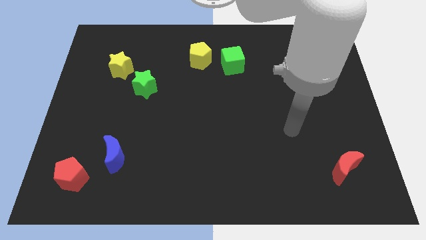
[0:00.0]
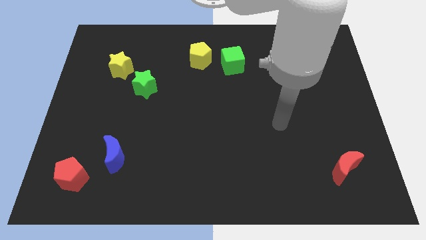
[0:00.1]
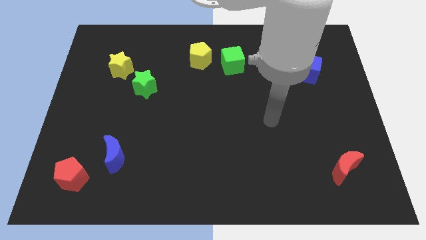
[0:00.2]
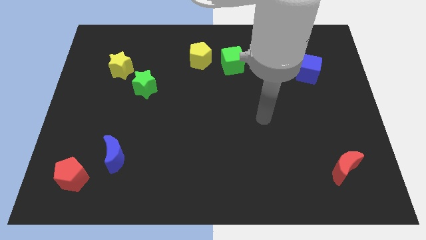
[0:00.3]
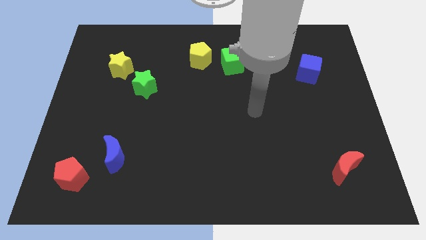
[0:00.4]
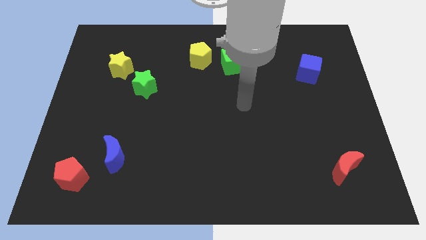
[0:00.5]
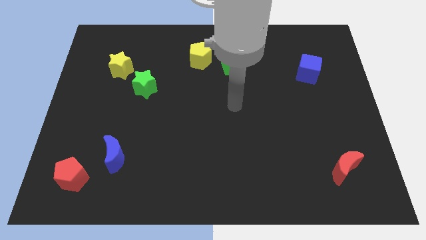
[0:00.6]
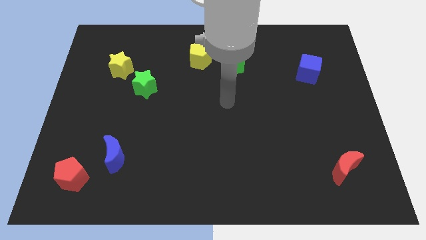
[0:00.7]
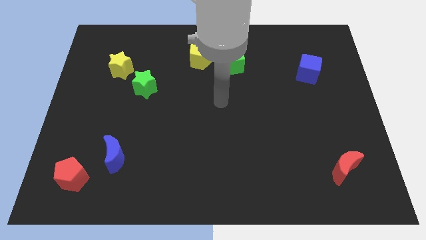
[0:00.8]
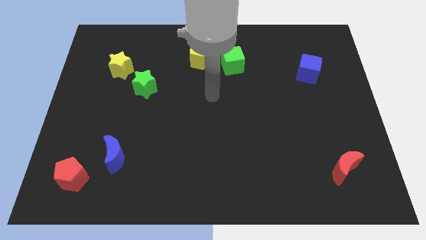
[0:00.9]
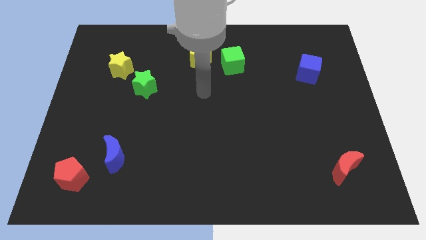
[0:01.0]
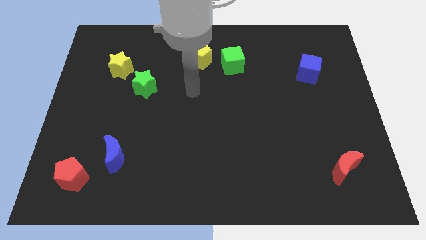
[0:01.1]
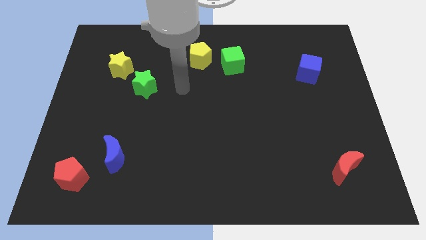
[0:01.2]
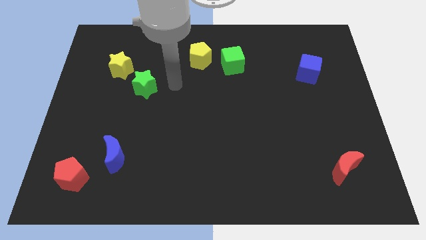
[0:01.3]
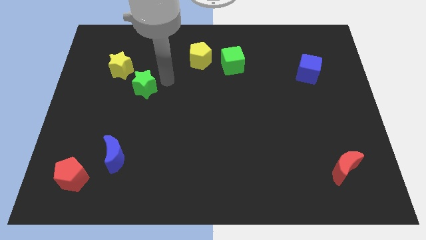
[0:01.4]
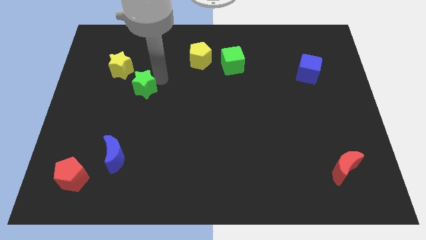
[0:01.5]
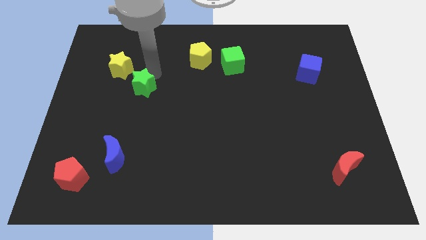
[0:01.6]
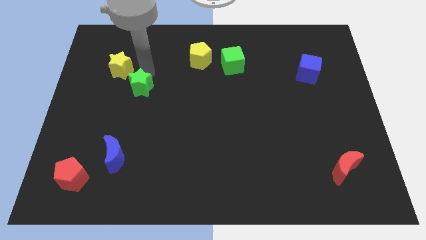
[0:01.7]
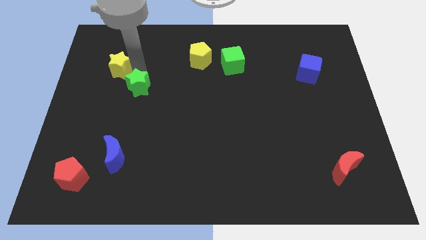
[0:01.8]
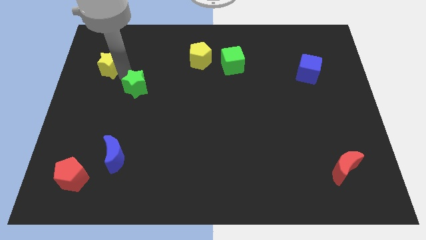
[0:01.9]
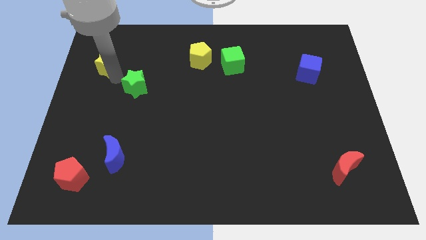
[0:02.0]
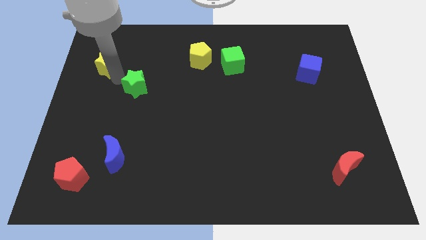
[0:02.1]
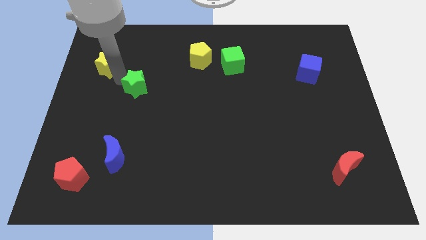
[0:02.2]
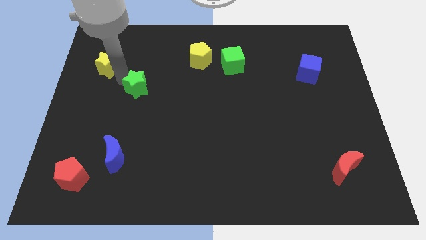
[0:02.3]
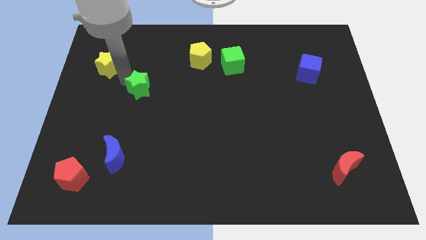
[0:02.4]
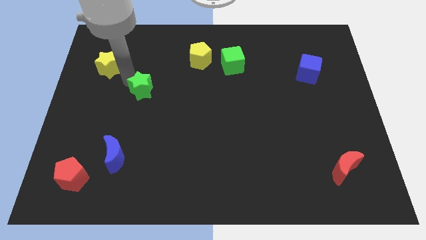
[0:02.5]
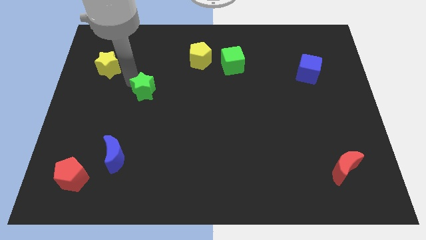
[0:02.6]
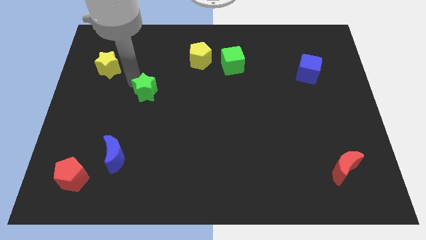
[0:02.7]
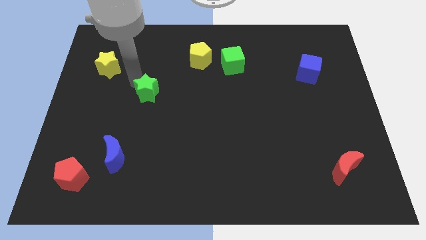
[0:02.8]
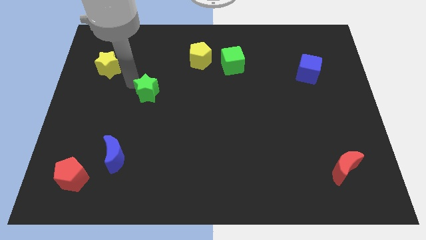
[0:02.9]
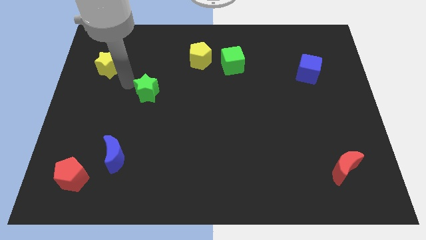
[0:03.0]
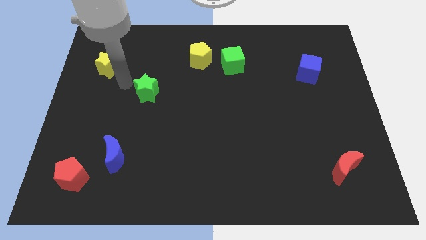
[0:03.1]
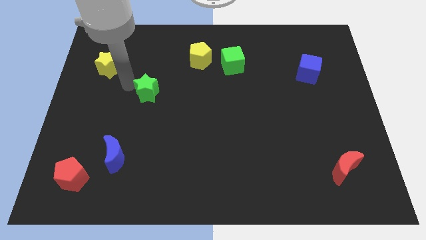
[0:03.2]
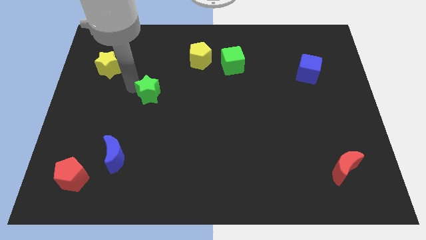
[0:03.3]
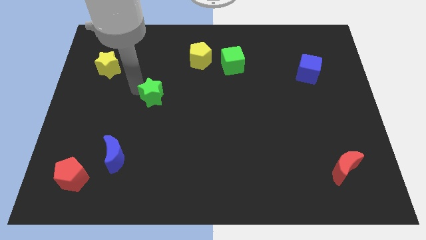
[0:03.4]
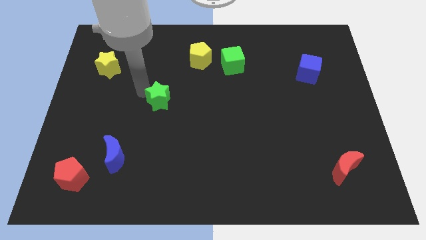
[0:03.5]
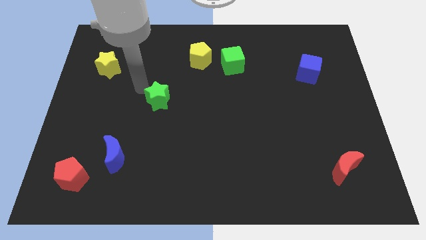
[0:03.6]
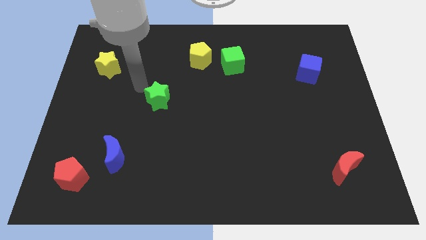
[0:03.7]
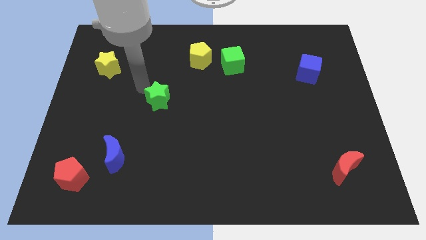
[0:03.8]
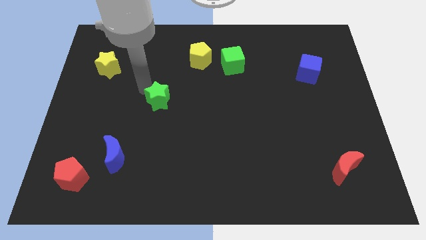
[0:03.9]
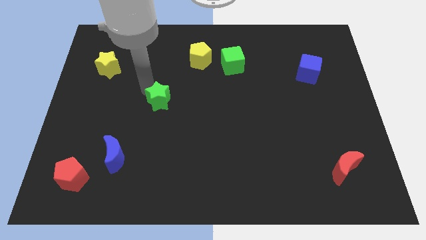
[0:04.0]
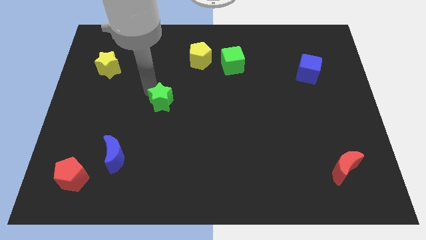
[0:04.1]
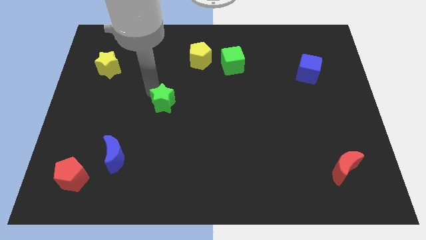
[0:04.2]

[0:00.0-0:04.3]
move the green star downwards and then to the right a little bit

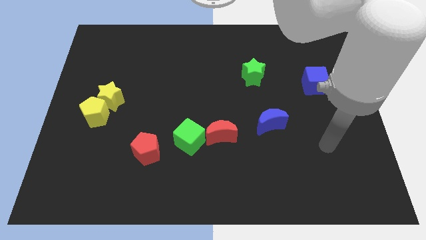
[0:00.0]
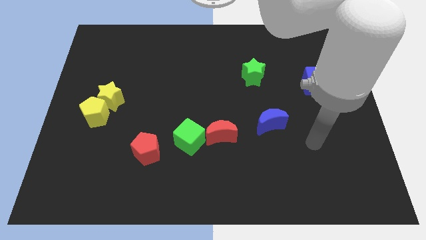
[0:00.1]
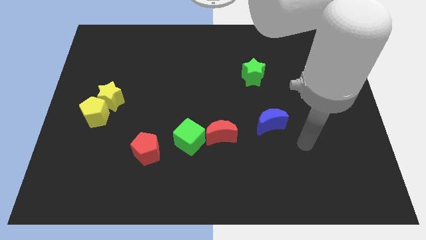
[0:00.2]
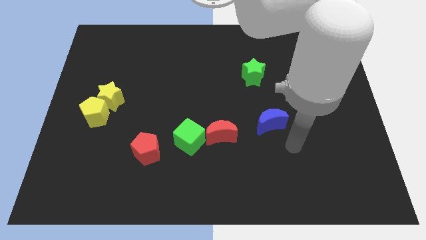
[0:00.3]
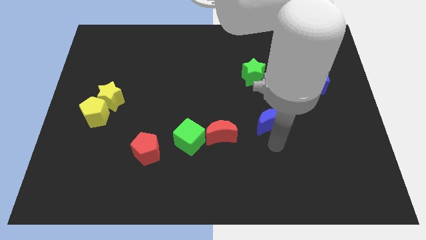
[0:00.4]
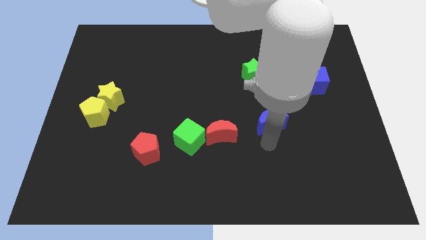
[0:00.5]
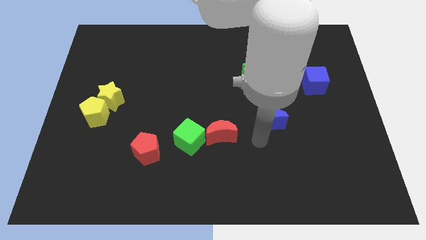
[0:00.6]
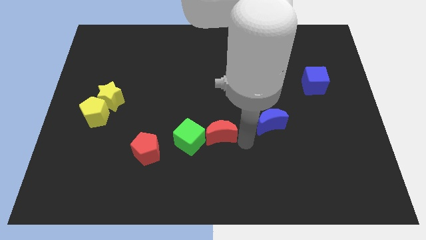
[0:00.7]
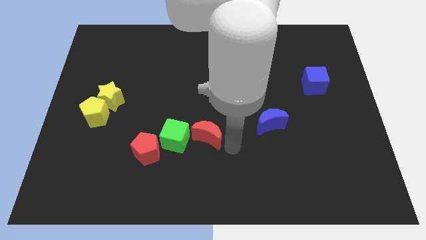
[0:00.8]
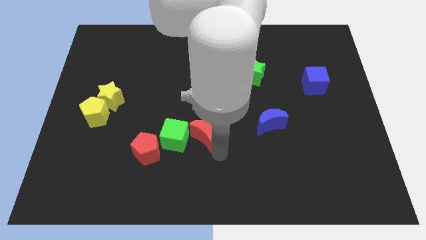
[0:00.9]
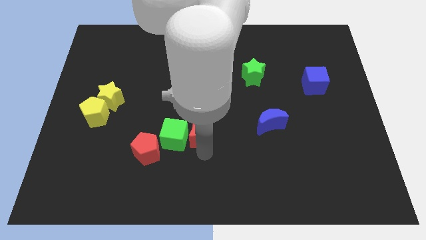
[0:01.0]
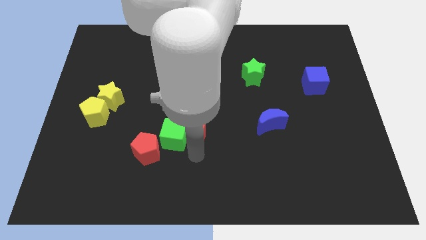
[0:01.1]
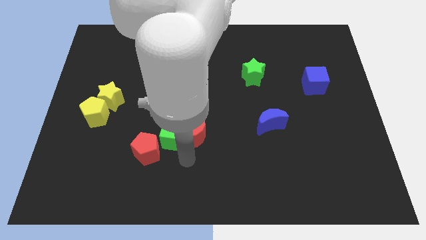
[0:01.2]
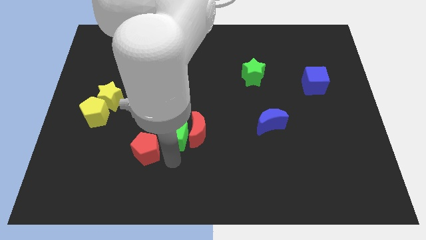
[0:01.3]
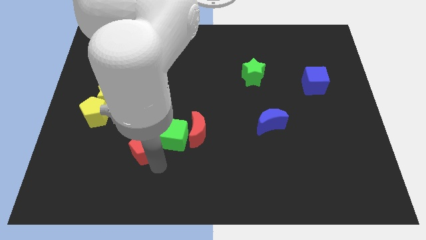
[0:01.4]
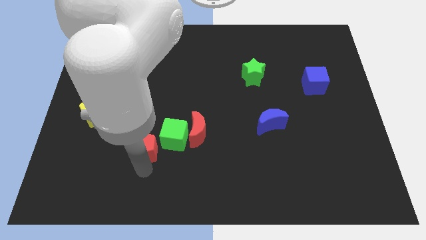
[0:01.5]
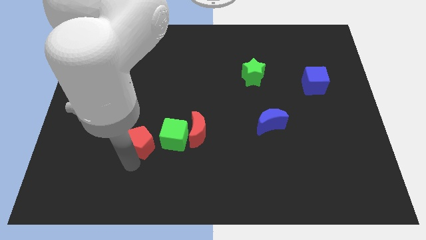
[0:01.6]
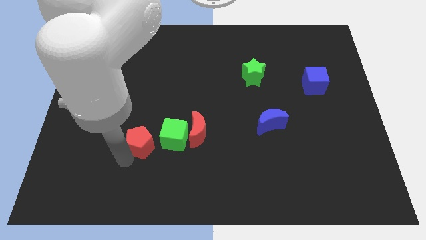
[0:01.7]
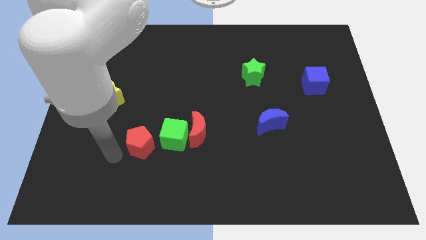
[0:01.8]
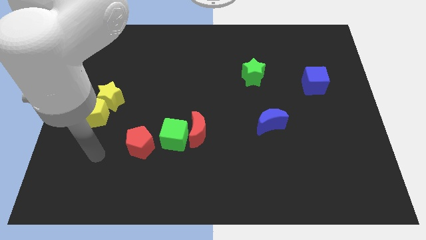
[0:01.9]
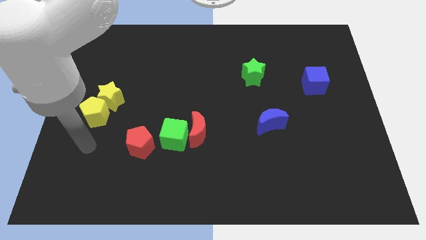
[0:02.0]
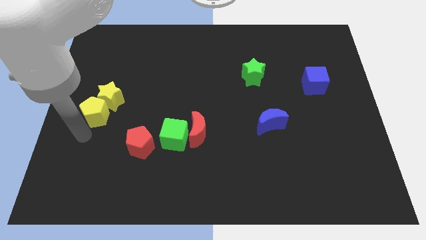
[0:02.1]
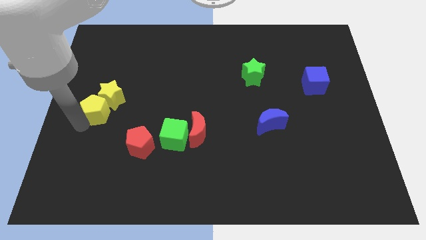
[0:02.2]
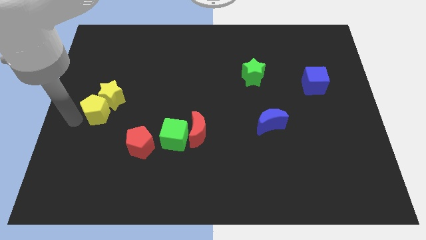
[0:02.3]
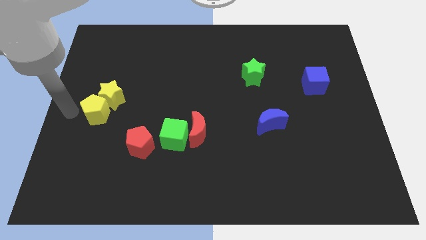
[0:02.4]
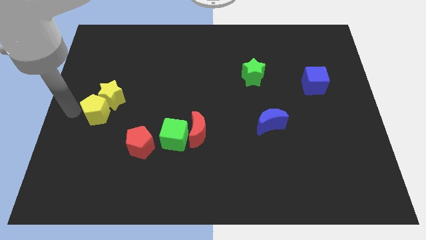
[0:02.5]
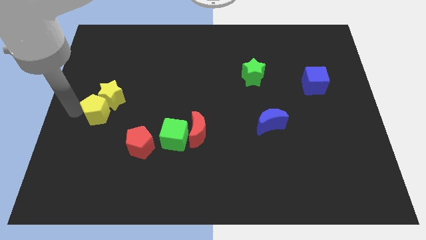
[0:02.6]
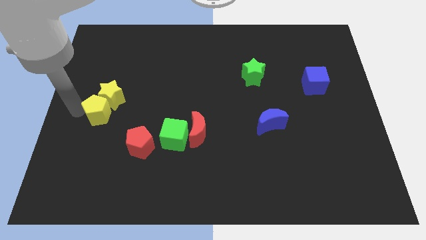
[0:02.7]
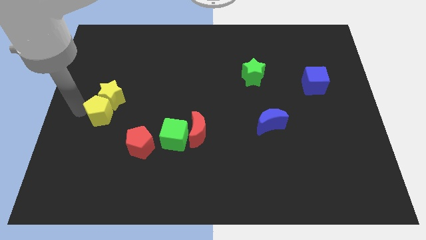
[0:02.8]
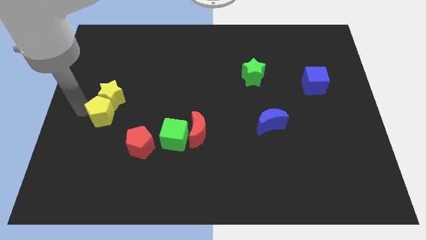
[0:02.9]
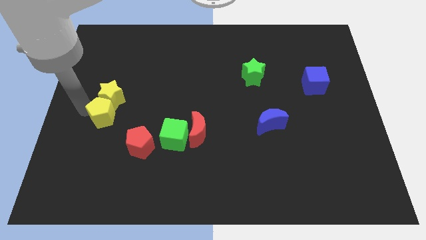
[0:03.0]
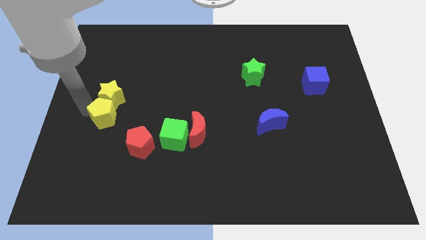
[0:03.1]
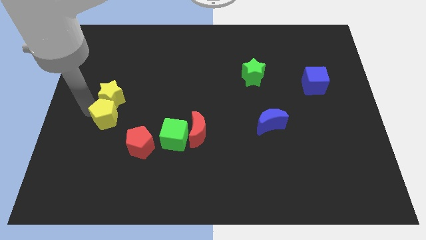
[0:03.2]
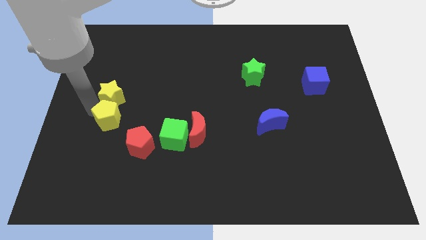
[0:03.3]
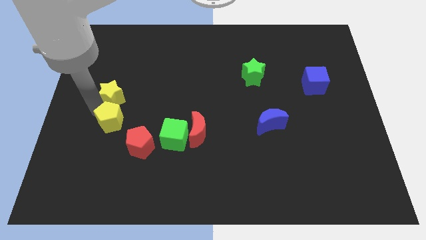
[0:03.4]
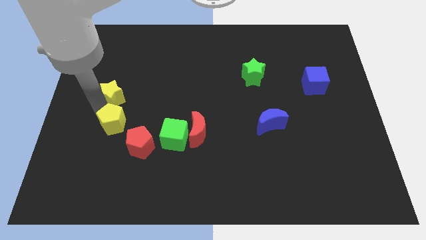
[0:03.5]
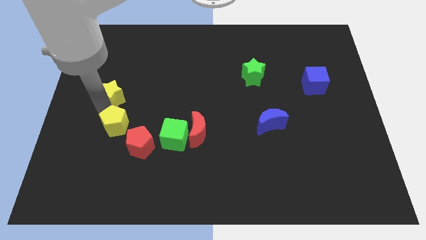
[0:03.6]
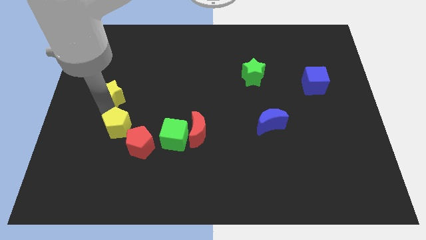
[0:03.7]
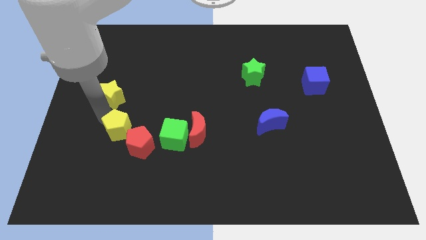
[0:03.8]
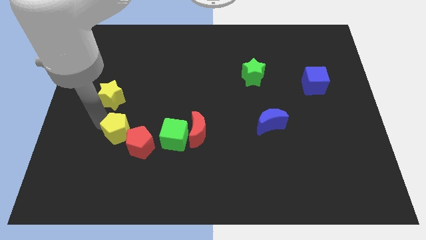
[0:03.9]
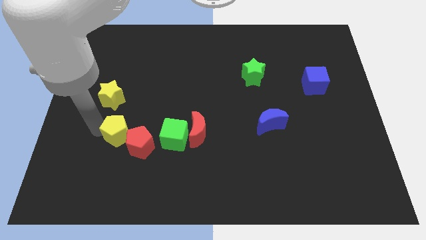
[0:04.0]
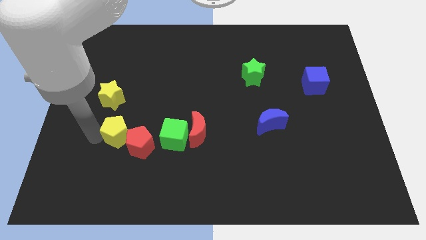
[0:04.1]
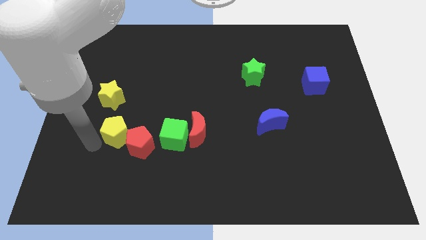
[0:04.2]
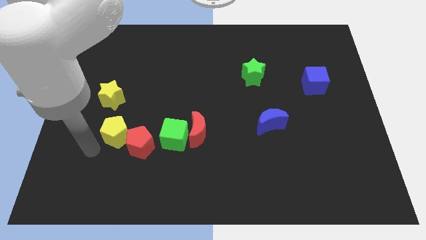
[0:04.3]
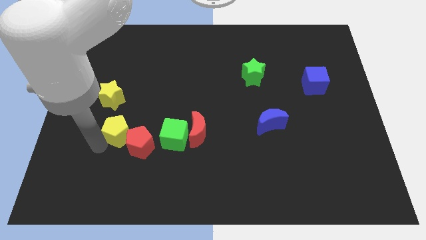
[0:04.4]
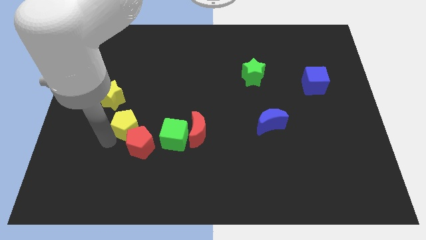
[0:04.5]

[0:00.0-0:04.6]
slide the yellow pentagon a little bit right
